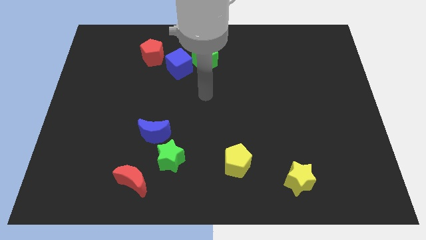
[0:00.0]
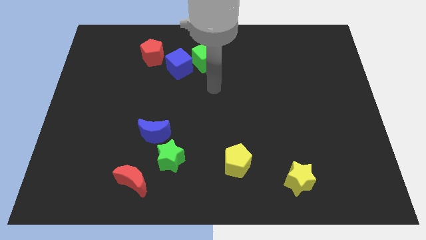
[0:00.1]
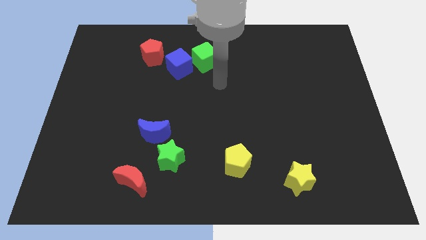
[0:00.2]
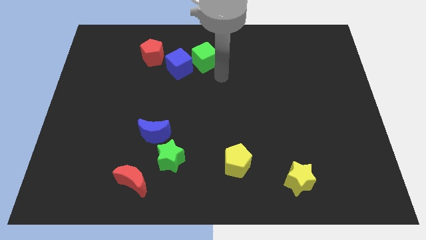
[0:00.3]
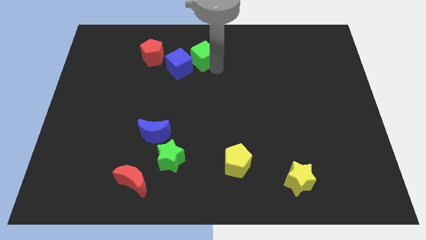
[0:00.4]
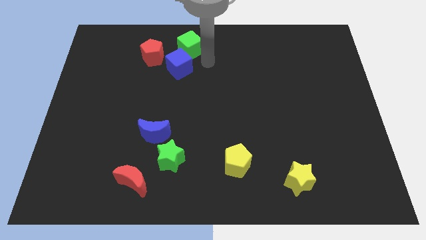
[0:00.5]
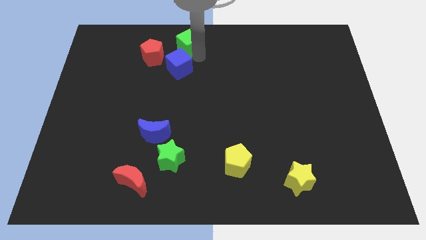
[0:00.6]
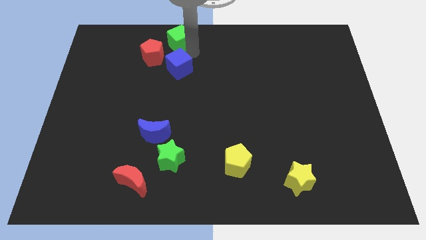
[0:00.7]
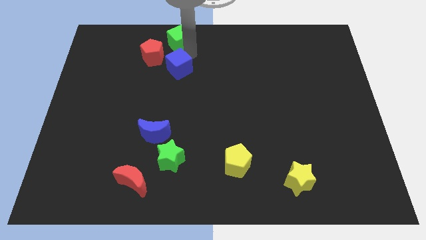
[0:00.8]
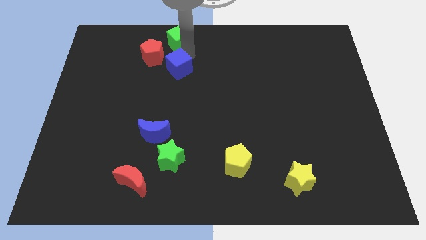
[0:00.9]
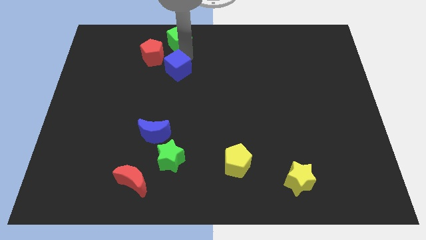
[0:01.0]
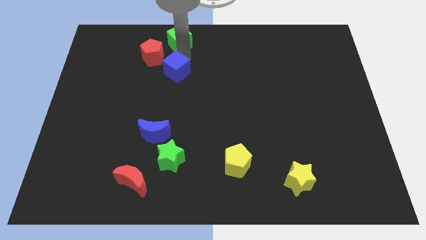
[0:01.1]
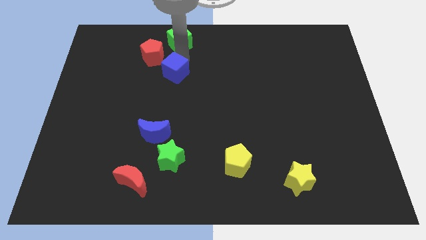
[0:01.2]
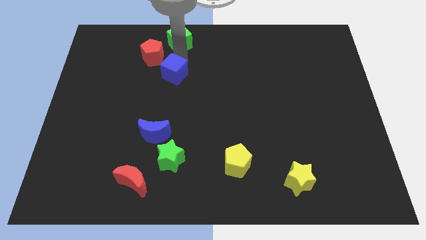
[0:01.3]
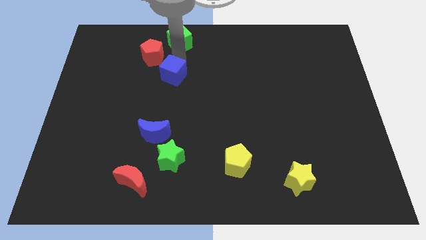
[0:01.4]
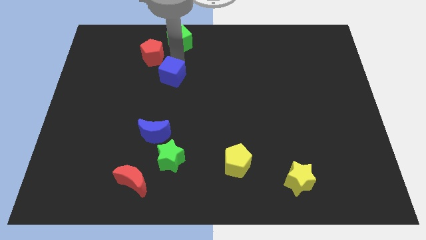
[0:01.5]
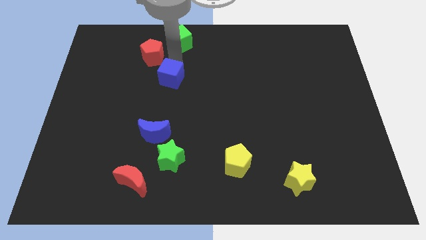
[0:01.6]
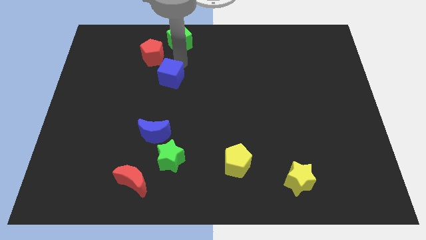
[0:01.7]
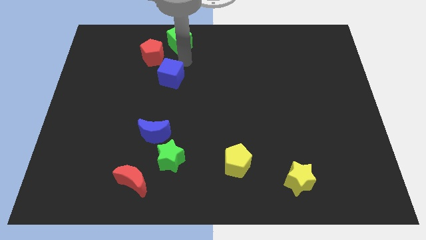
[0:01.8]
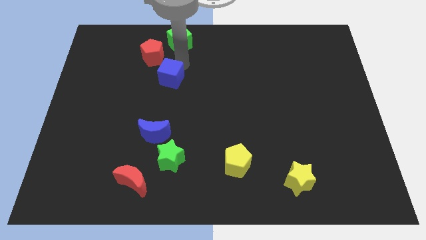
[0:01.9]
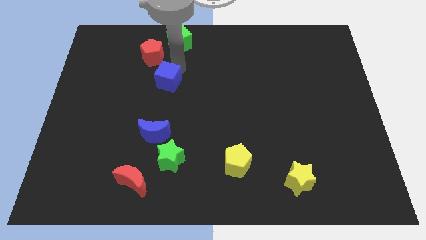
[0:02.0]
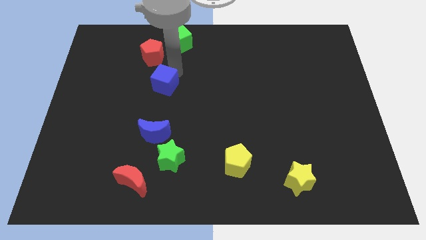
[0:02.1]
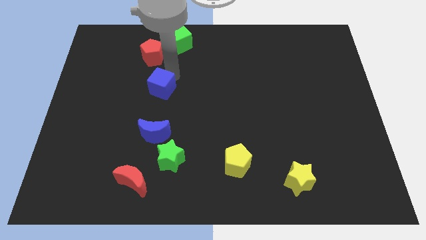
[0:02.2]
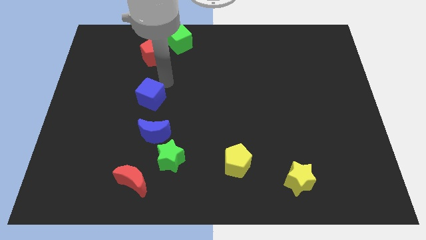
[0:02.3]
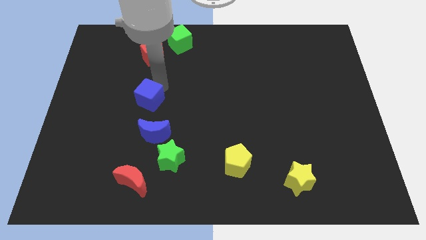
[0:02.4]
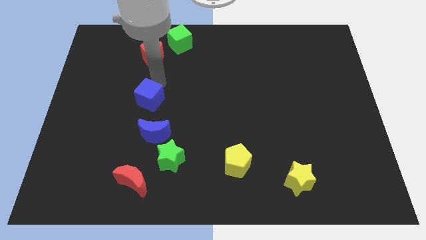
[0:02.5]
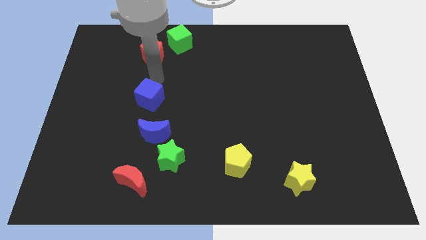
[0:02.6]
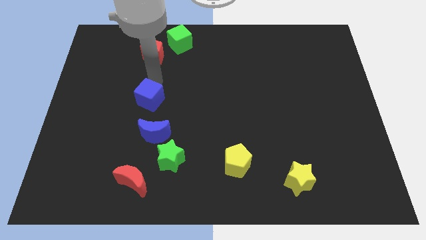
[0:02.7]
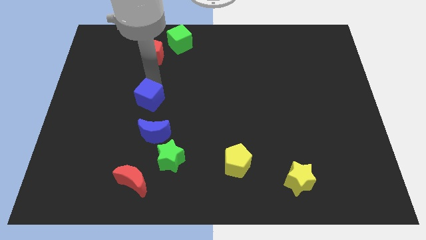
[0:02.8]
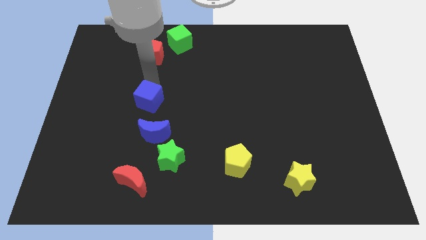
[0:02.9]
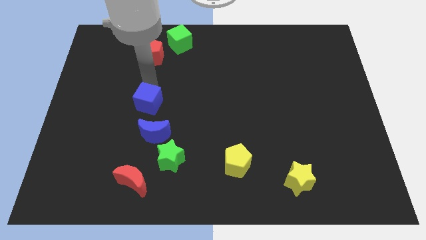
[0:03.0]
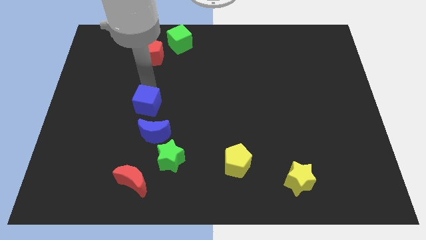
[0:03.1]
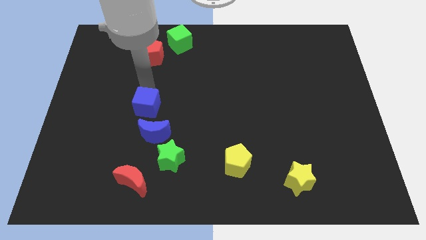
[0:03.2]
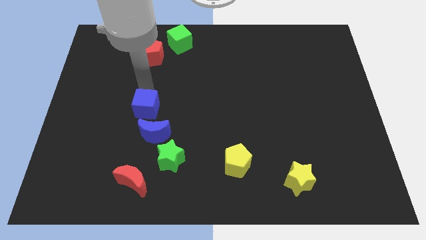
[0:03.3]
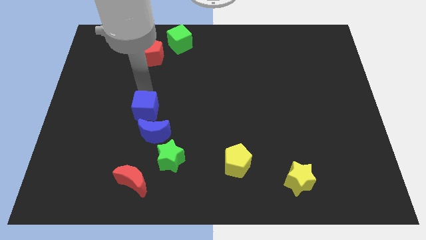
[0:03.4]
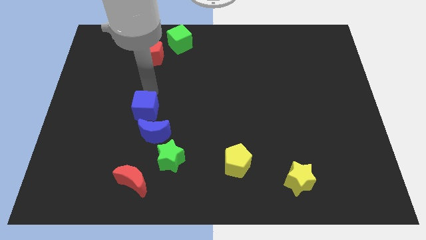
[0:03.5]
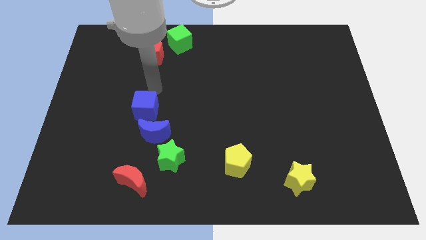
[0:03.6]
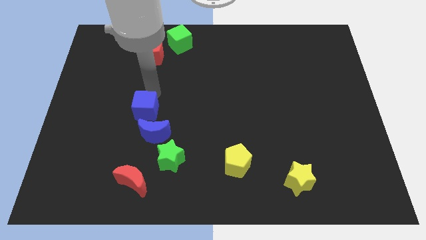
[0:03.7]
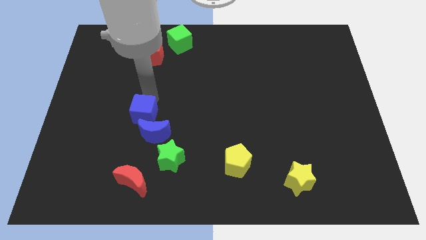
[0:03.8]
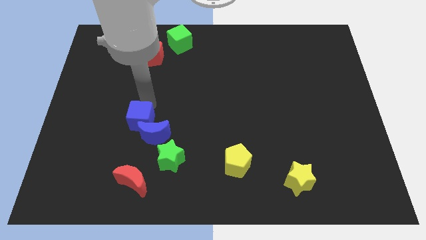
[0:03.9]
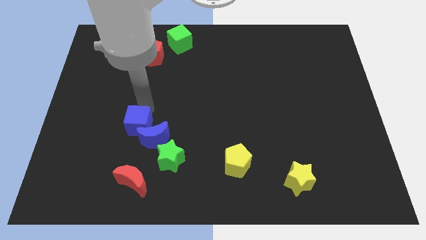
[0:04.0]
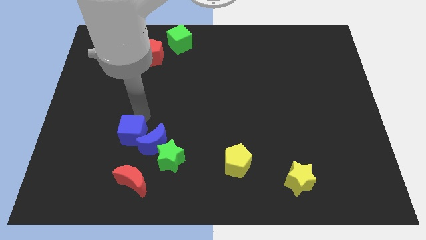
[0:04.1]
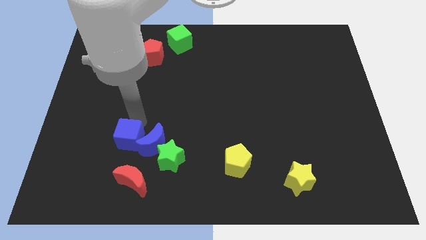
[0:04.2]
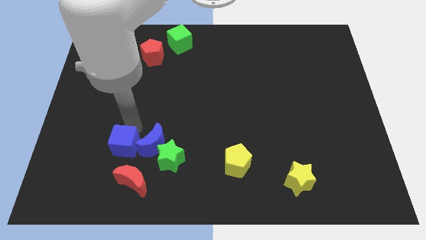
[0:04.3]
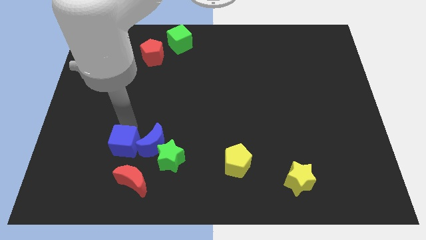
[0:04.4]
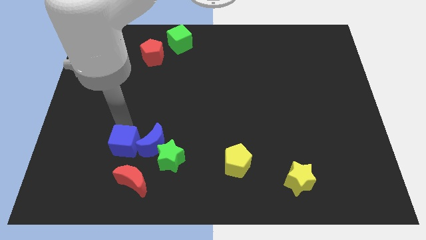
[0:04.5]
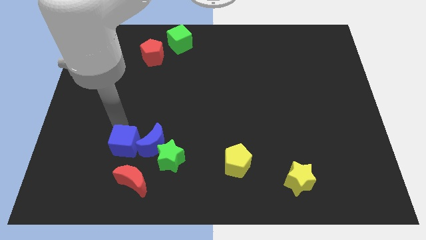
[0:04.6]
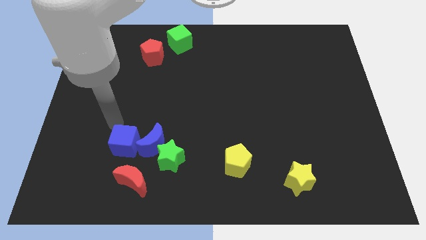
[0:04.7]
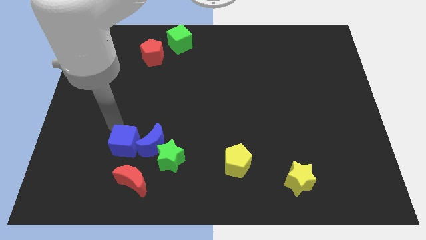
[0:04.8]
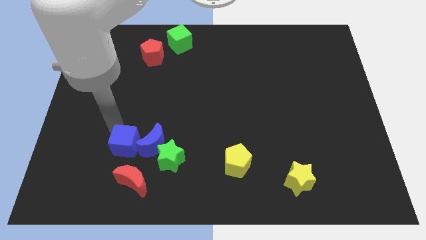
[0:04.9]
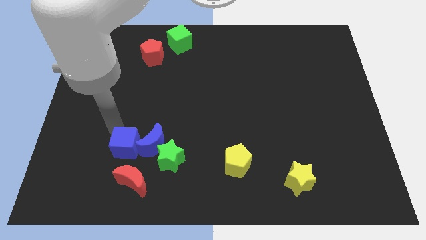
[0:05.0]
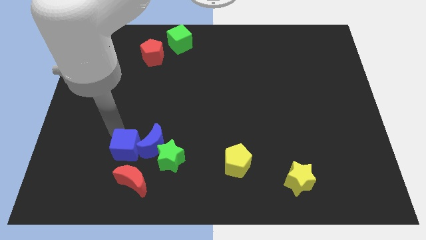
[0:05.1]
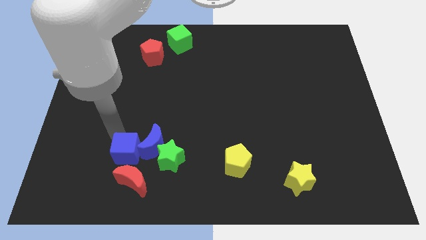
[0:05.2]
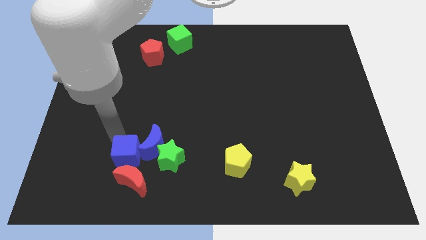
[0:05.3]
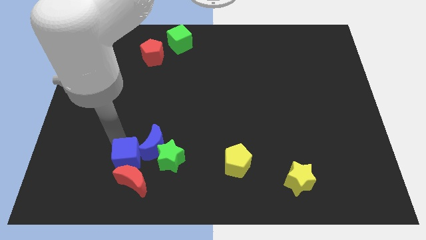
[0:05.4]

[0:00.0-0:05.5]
push the blue cube close to the red moon

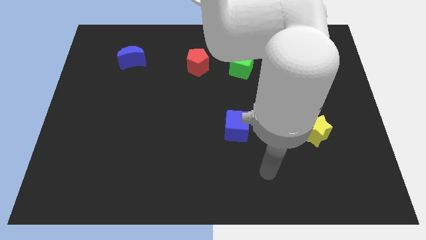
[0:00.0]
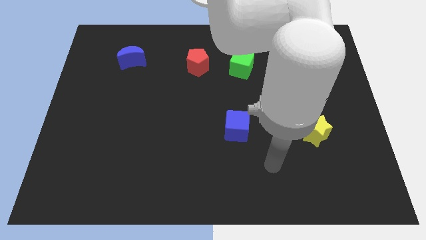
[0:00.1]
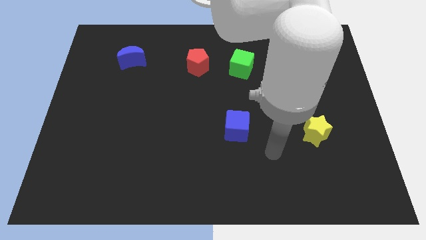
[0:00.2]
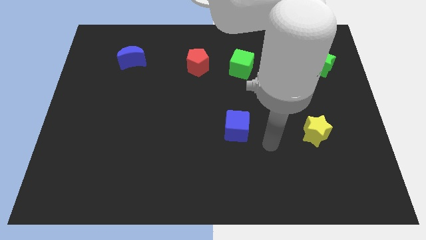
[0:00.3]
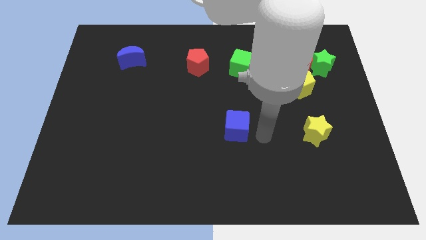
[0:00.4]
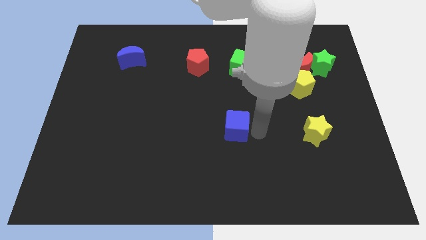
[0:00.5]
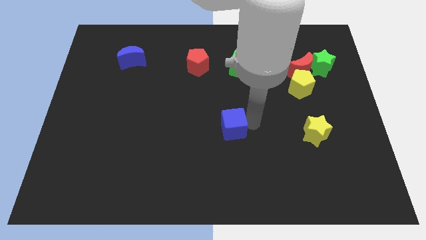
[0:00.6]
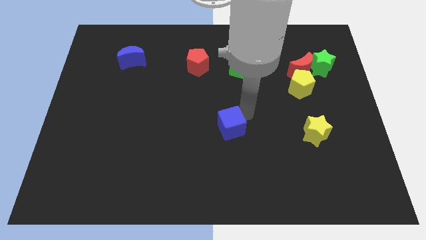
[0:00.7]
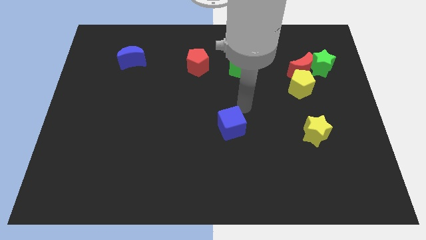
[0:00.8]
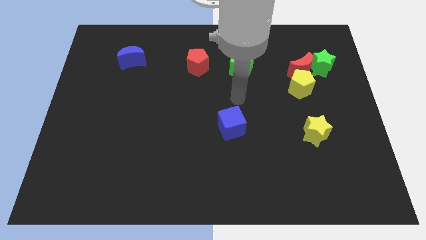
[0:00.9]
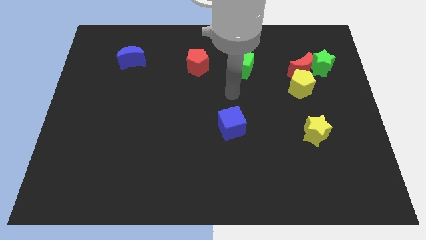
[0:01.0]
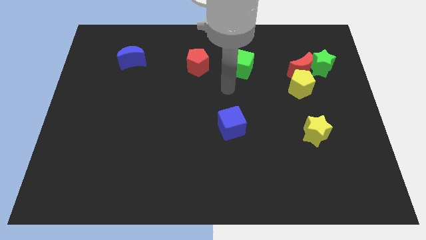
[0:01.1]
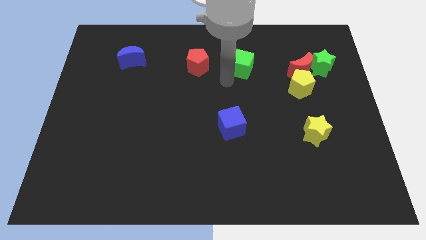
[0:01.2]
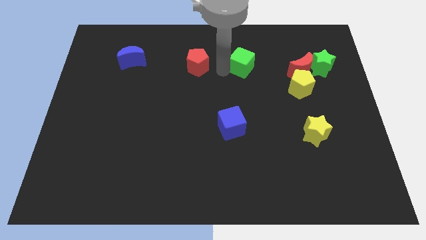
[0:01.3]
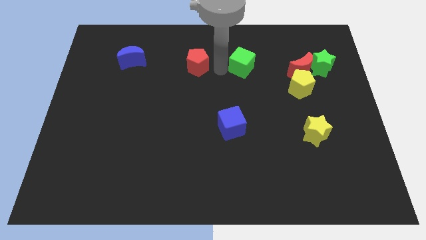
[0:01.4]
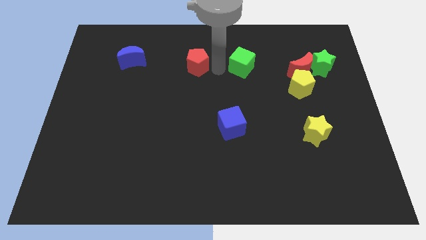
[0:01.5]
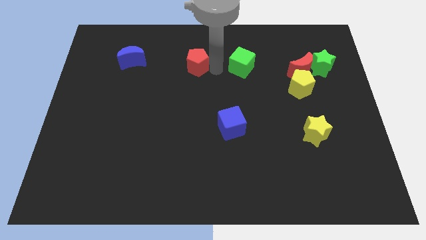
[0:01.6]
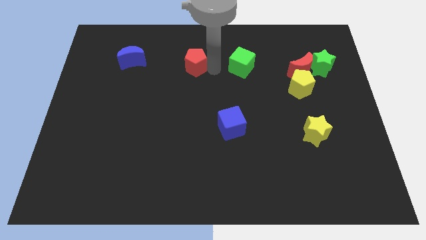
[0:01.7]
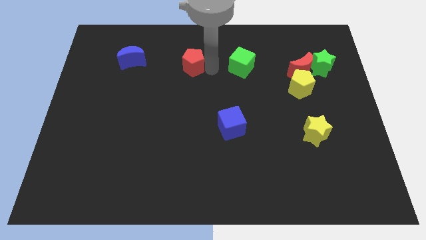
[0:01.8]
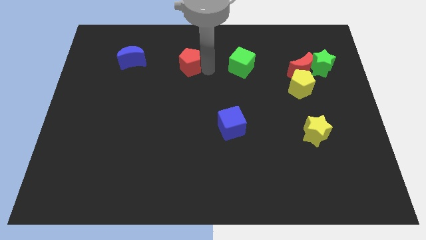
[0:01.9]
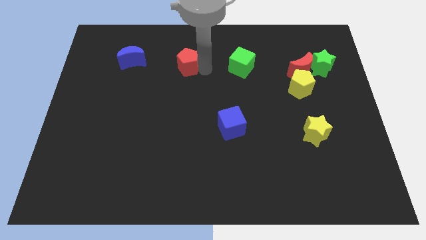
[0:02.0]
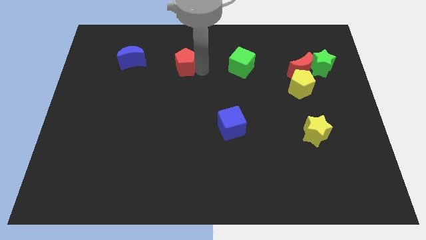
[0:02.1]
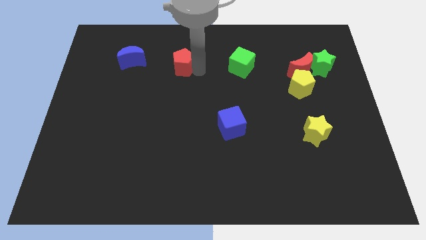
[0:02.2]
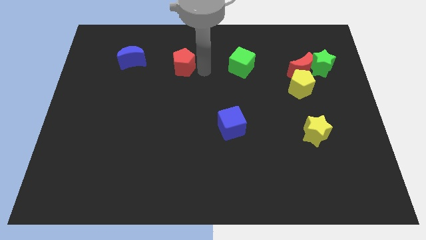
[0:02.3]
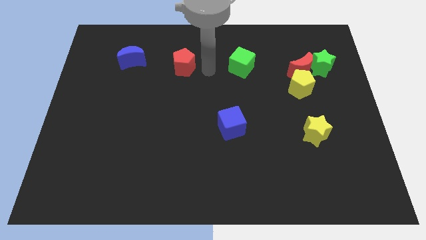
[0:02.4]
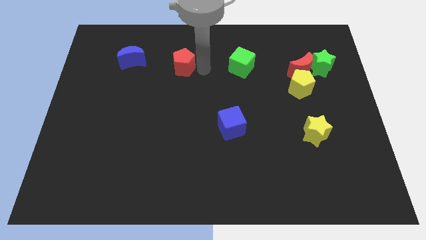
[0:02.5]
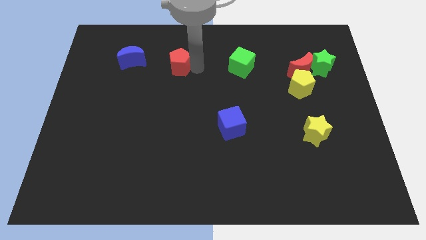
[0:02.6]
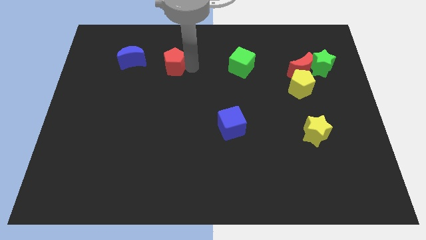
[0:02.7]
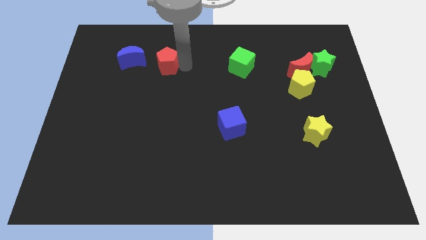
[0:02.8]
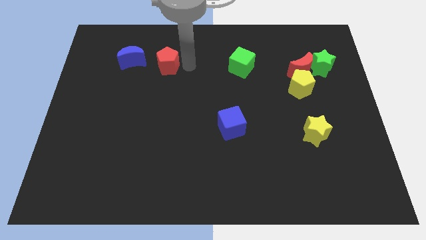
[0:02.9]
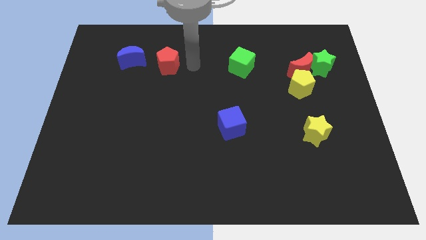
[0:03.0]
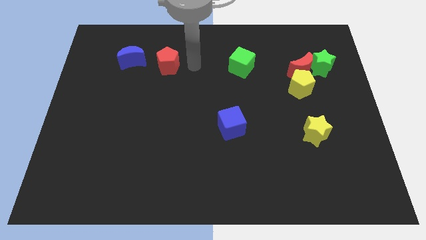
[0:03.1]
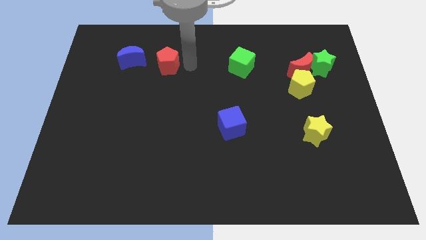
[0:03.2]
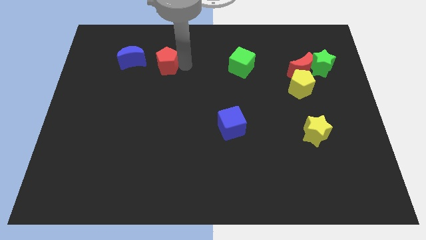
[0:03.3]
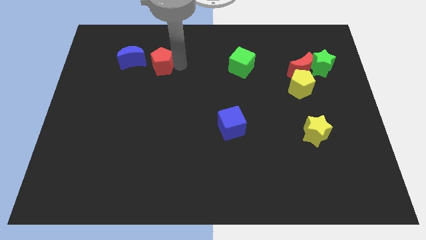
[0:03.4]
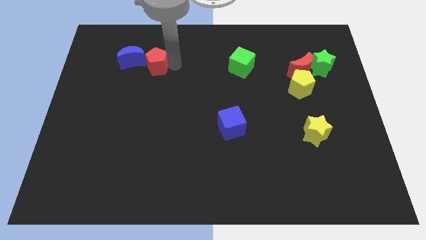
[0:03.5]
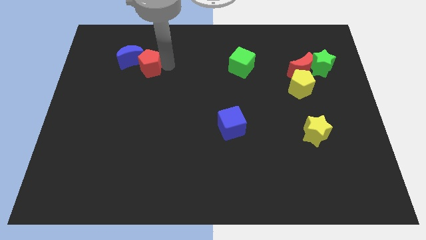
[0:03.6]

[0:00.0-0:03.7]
push the red pentagon towards the blue moon
